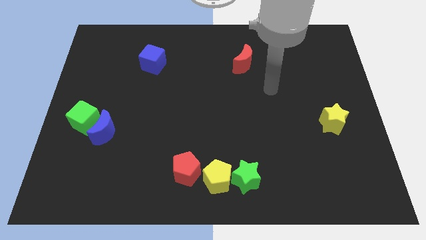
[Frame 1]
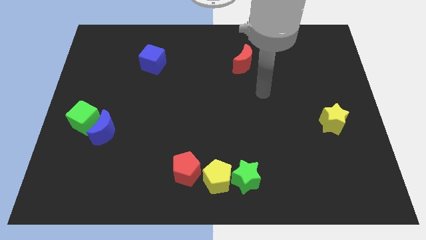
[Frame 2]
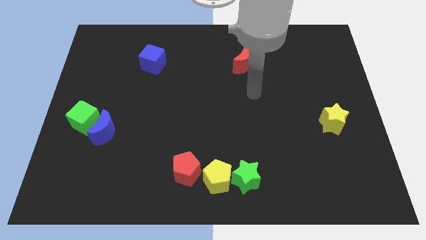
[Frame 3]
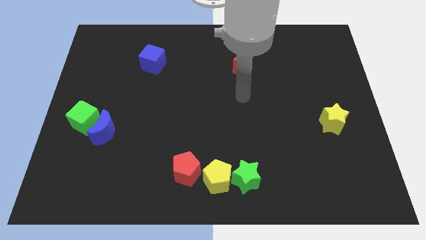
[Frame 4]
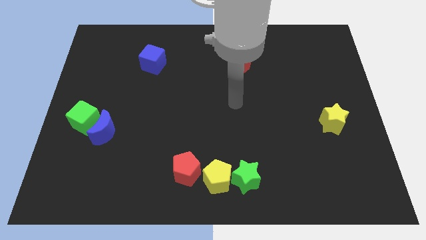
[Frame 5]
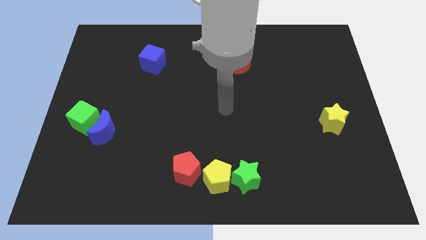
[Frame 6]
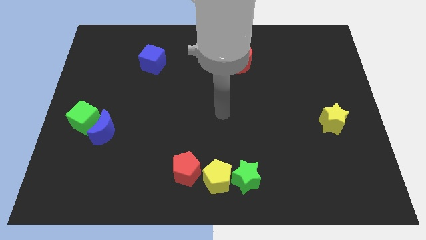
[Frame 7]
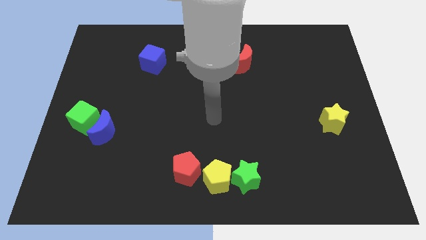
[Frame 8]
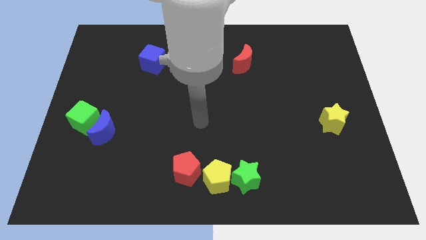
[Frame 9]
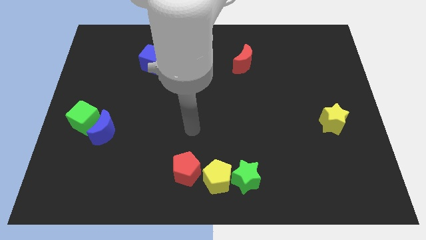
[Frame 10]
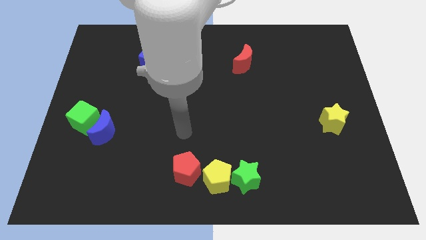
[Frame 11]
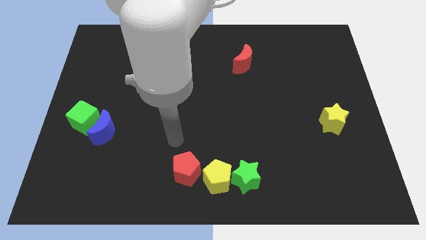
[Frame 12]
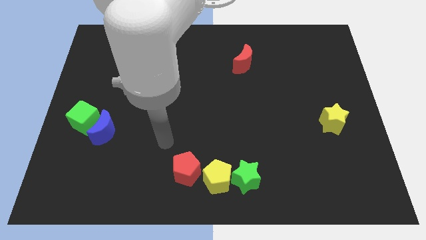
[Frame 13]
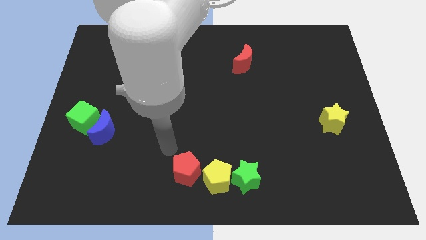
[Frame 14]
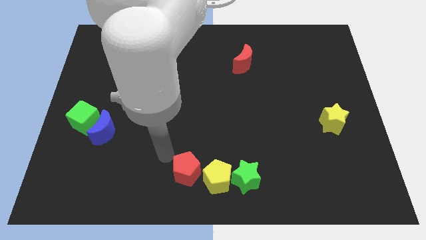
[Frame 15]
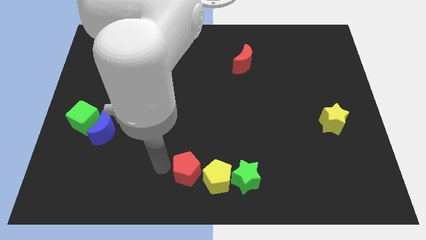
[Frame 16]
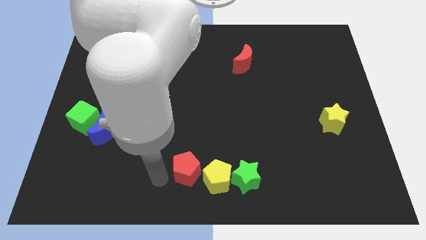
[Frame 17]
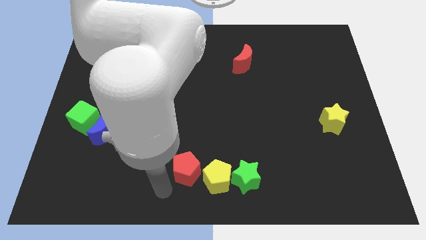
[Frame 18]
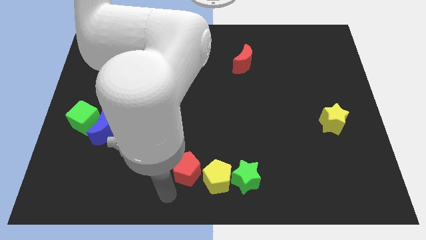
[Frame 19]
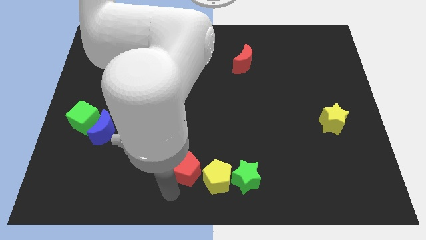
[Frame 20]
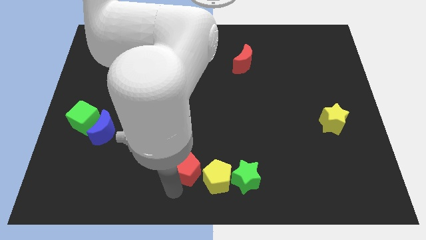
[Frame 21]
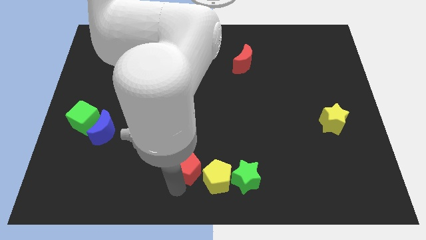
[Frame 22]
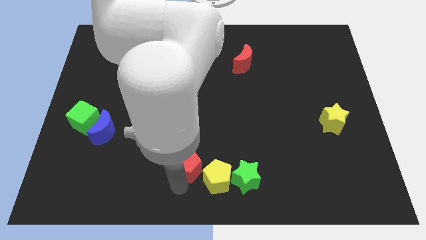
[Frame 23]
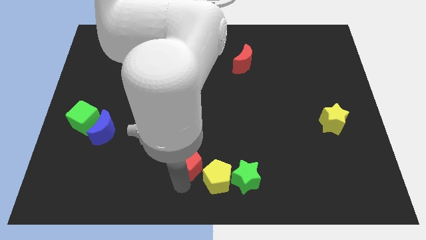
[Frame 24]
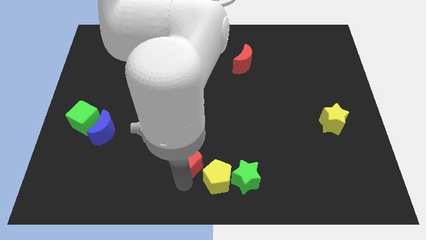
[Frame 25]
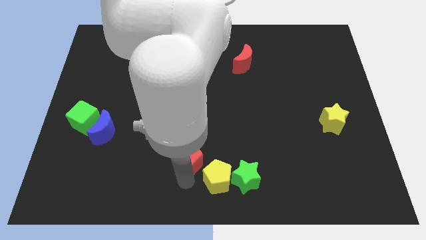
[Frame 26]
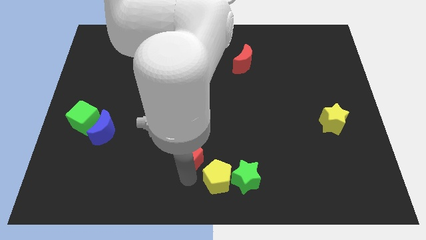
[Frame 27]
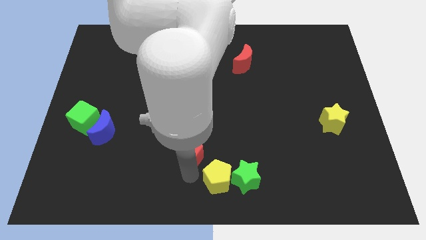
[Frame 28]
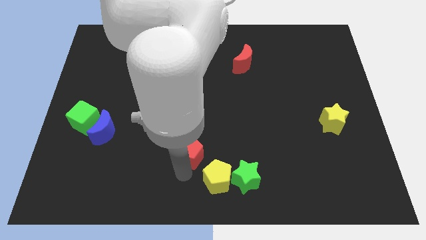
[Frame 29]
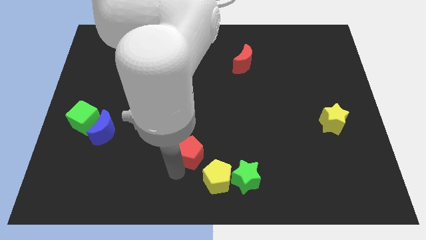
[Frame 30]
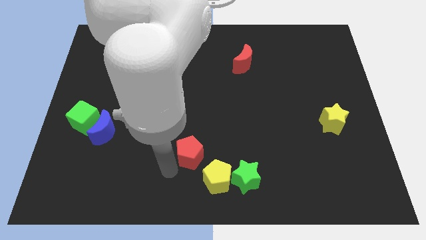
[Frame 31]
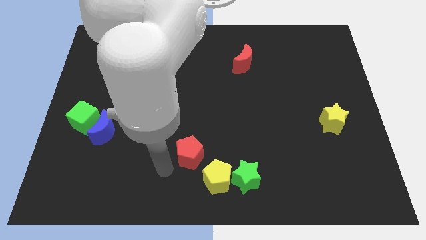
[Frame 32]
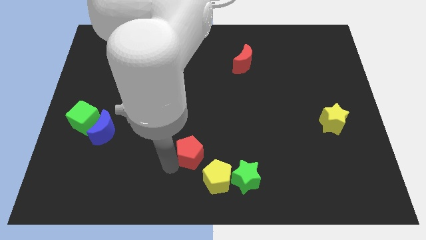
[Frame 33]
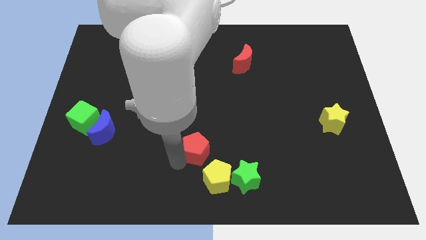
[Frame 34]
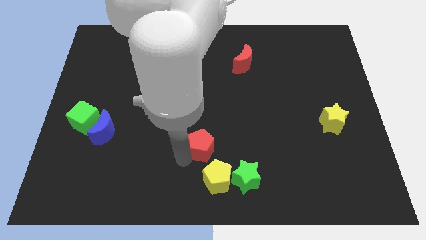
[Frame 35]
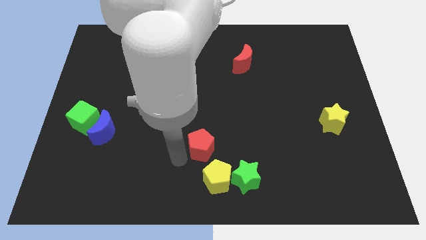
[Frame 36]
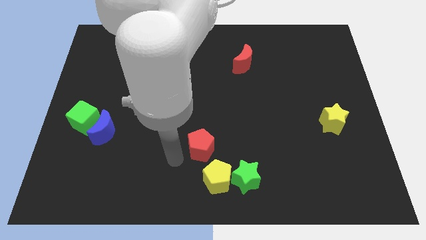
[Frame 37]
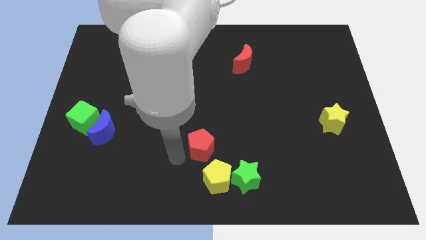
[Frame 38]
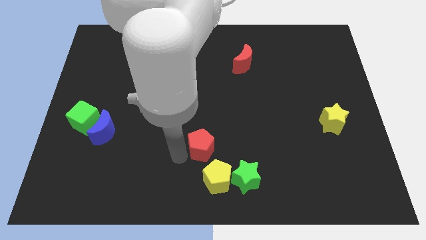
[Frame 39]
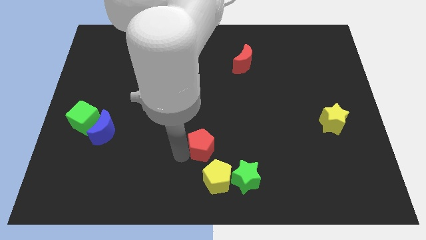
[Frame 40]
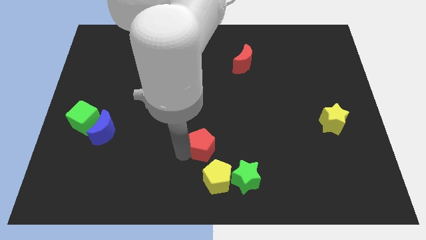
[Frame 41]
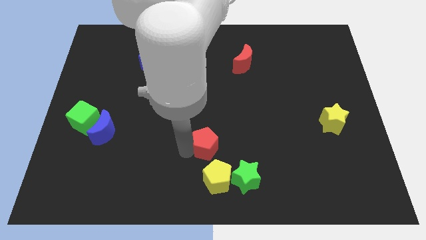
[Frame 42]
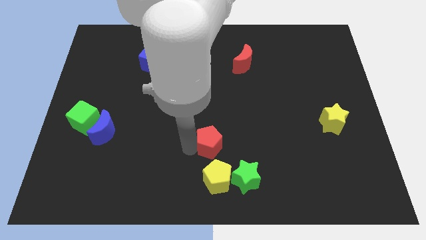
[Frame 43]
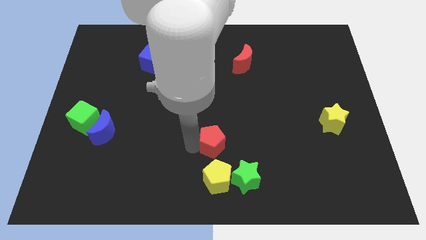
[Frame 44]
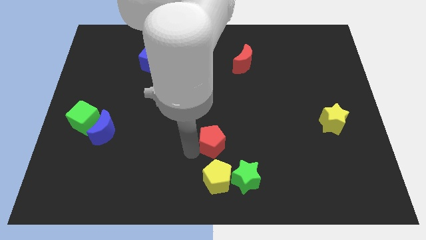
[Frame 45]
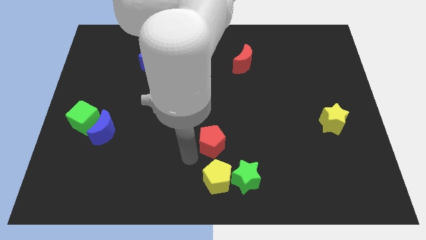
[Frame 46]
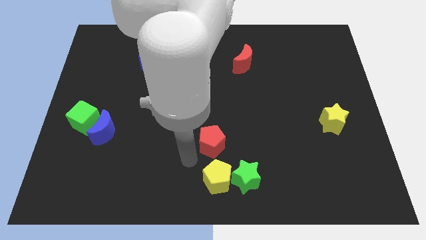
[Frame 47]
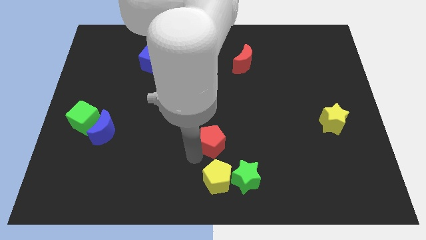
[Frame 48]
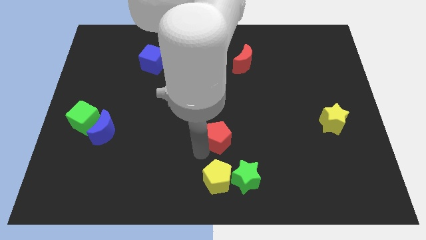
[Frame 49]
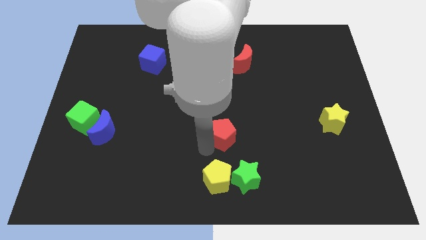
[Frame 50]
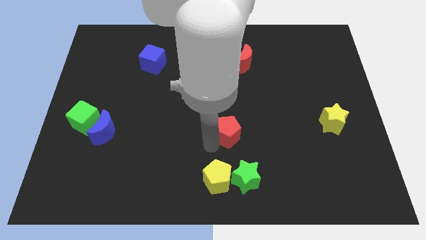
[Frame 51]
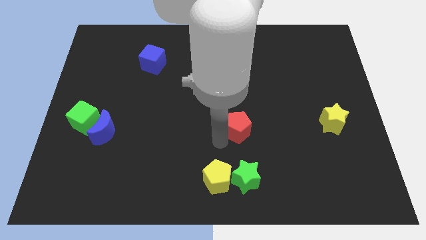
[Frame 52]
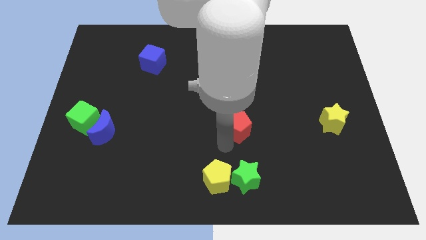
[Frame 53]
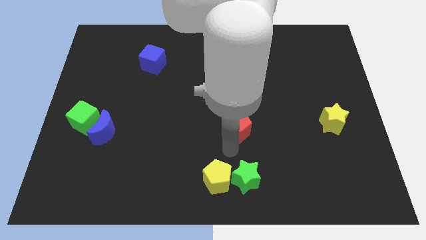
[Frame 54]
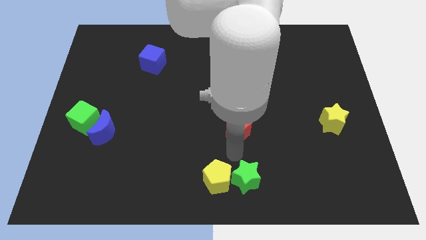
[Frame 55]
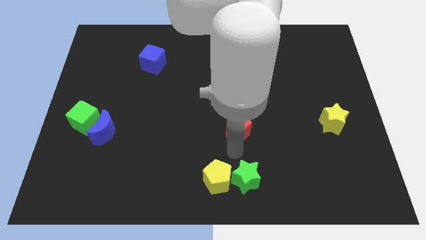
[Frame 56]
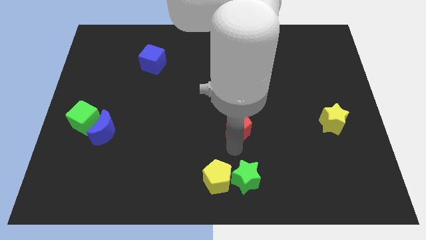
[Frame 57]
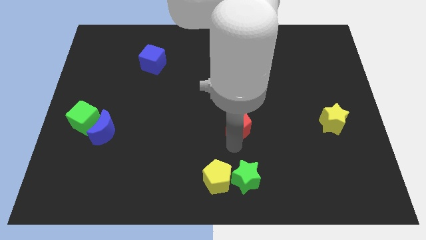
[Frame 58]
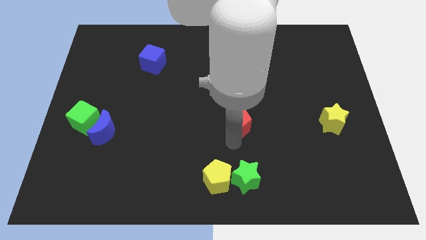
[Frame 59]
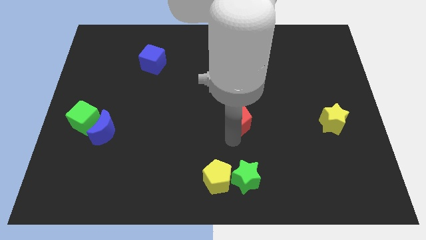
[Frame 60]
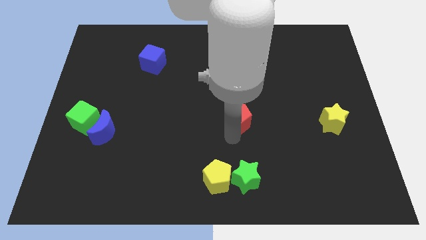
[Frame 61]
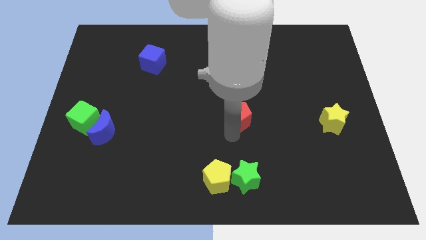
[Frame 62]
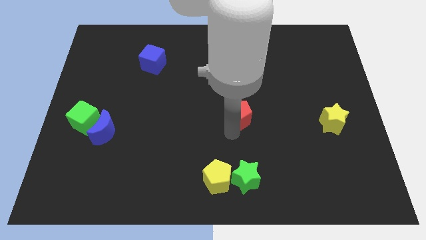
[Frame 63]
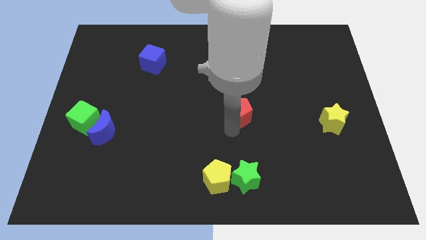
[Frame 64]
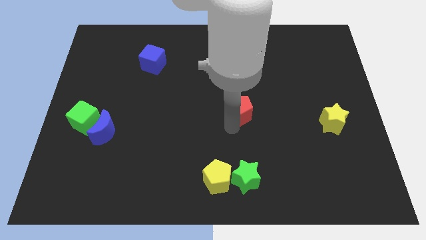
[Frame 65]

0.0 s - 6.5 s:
put the red pentagon to the bottom of the red moon

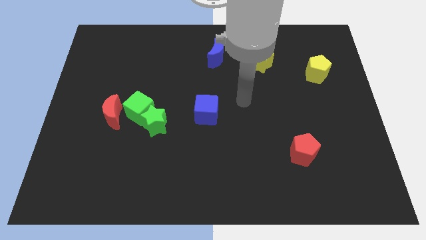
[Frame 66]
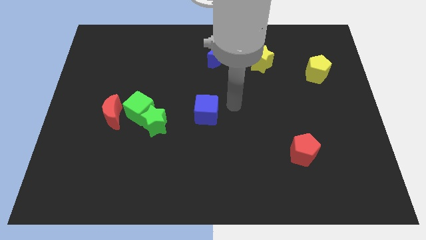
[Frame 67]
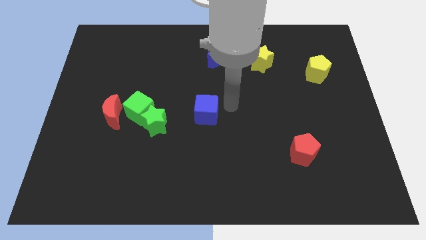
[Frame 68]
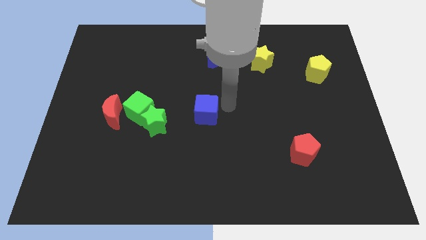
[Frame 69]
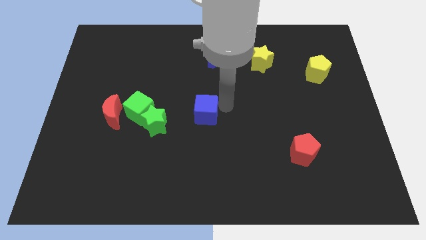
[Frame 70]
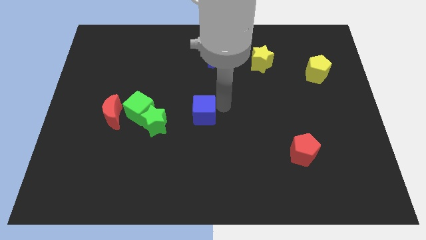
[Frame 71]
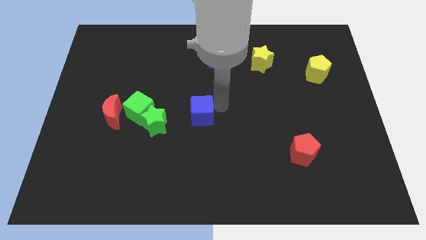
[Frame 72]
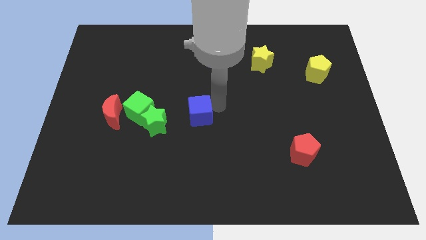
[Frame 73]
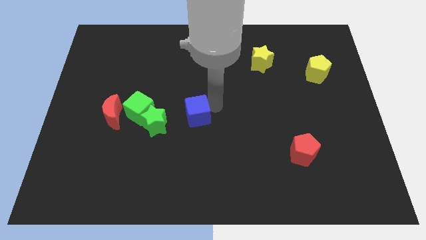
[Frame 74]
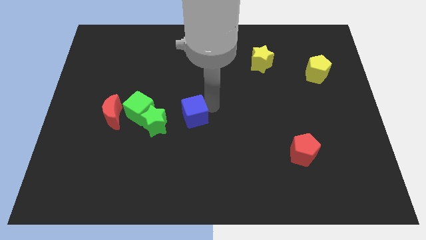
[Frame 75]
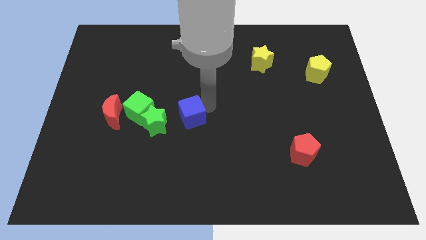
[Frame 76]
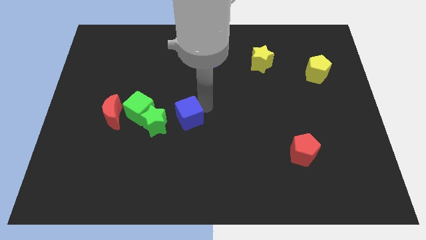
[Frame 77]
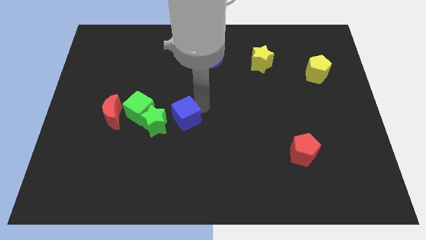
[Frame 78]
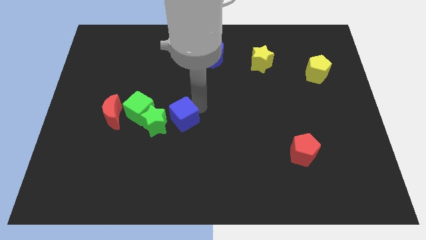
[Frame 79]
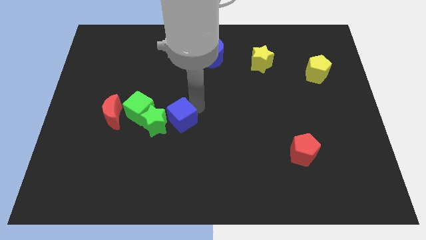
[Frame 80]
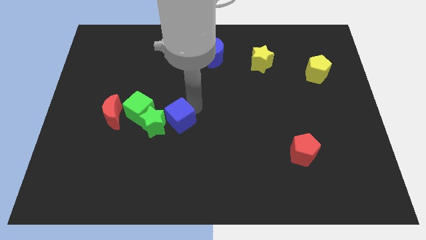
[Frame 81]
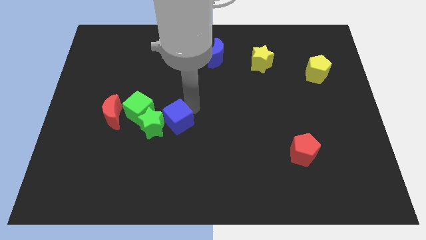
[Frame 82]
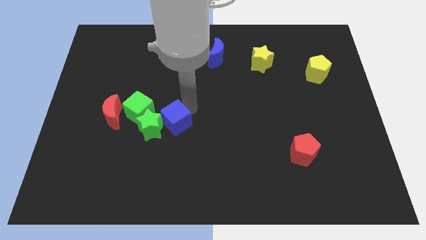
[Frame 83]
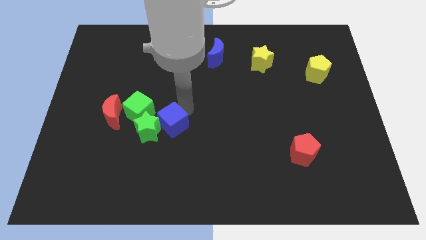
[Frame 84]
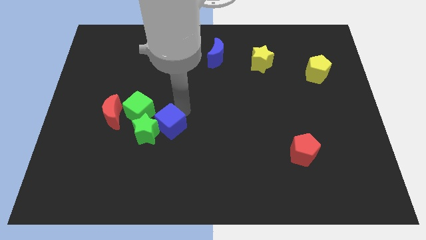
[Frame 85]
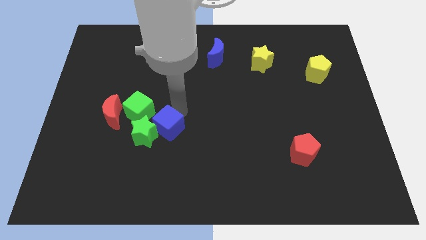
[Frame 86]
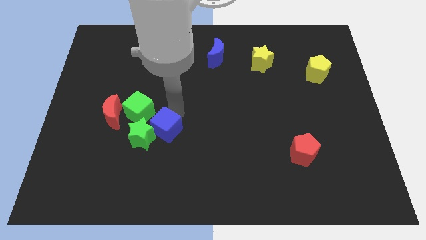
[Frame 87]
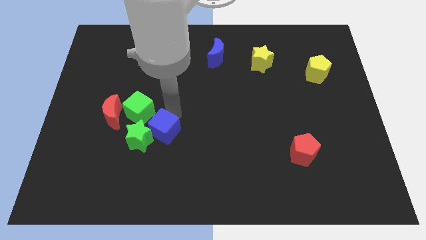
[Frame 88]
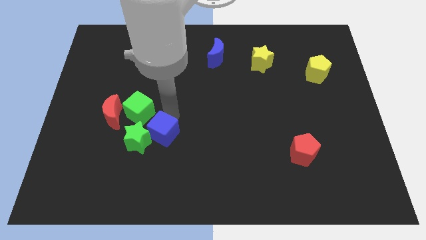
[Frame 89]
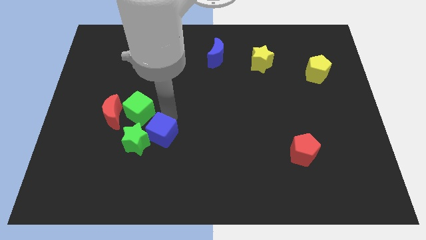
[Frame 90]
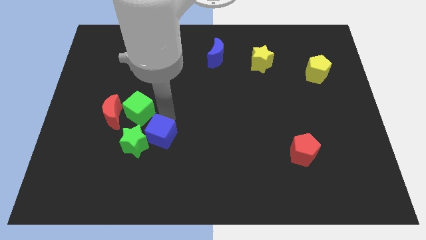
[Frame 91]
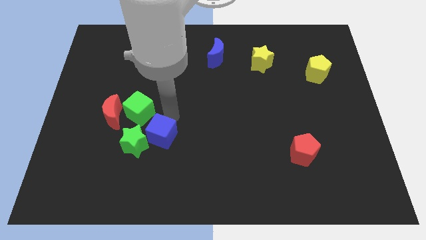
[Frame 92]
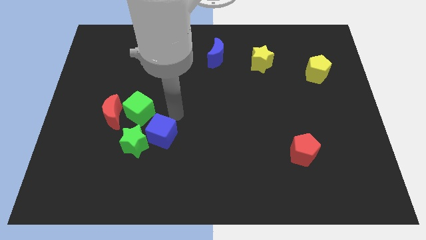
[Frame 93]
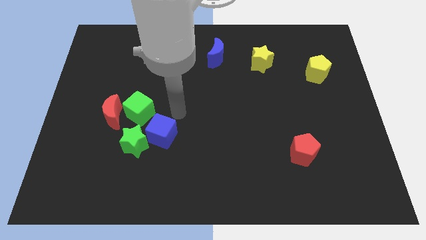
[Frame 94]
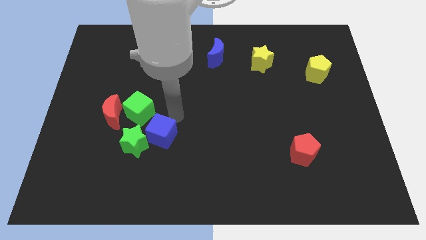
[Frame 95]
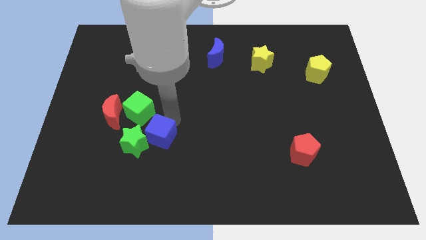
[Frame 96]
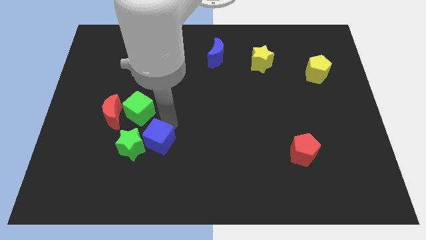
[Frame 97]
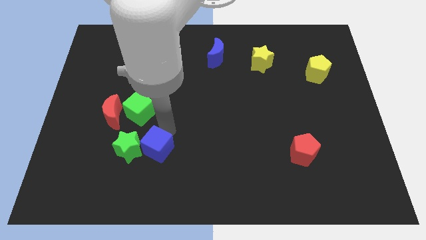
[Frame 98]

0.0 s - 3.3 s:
push the blue cube to the bottom of the green cube
